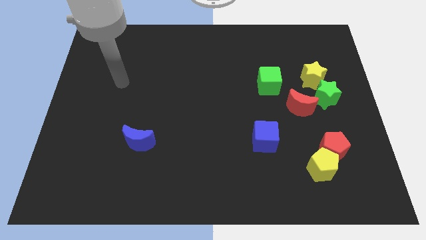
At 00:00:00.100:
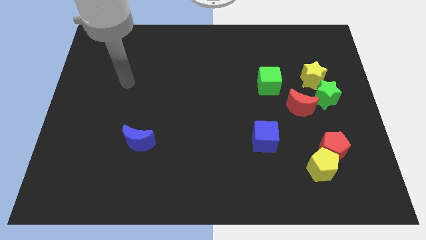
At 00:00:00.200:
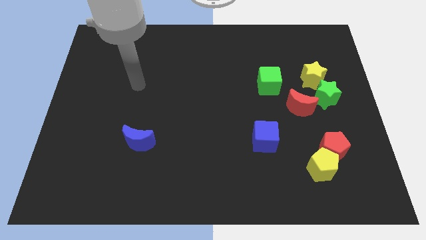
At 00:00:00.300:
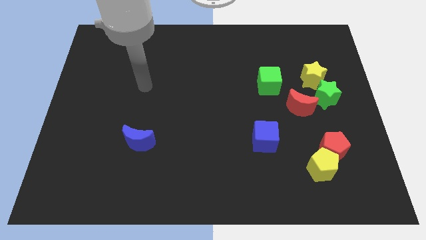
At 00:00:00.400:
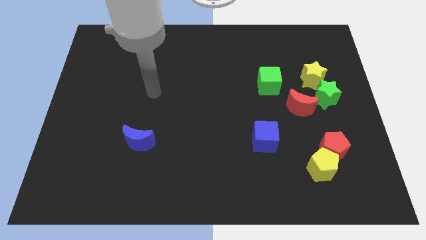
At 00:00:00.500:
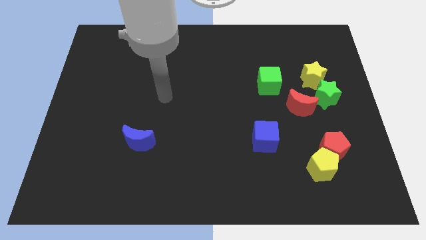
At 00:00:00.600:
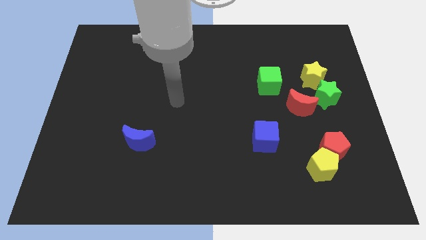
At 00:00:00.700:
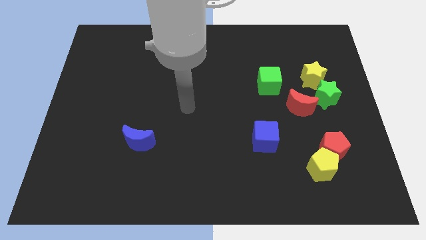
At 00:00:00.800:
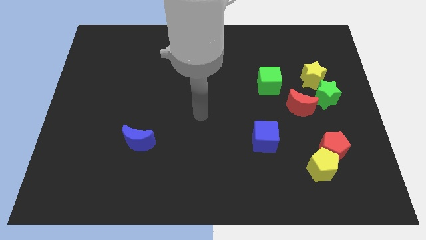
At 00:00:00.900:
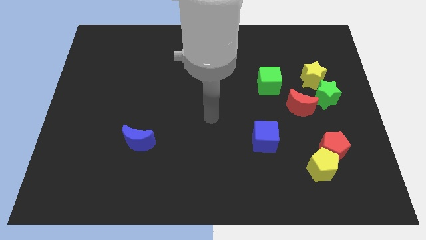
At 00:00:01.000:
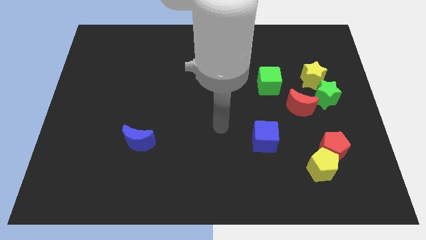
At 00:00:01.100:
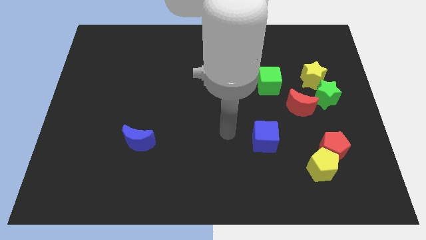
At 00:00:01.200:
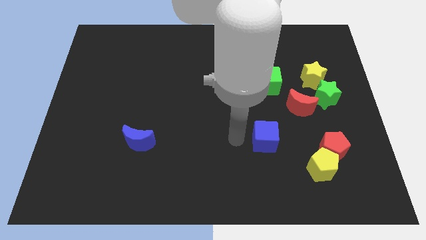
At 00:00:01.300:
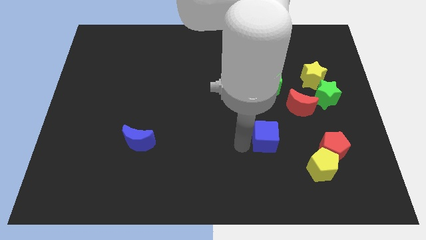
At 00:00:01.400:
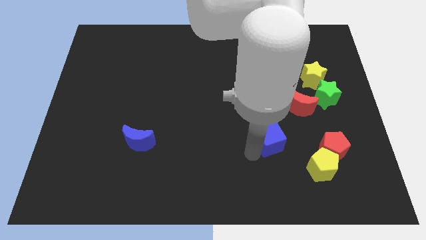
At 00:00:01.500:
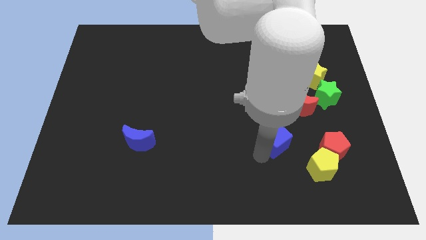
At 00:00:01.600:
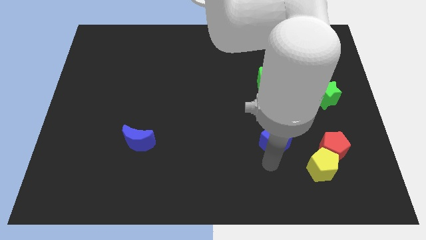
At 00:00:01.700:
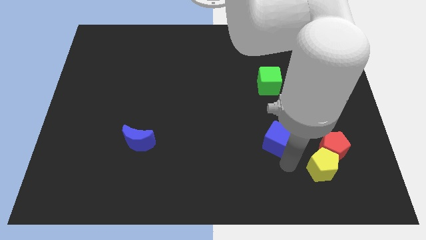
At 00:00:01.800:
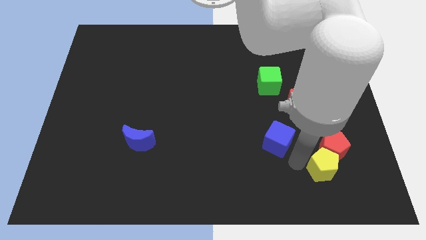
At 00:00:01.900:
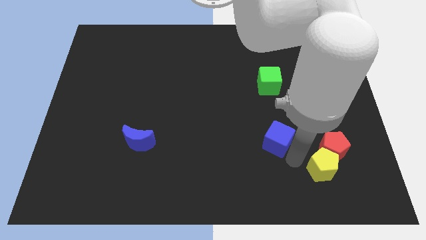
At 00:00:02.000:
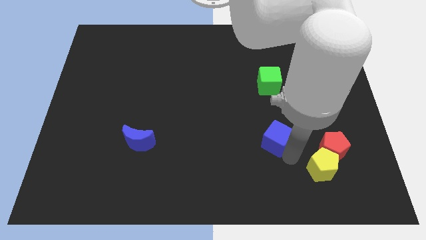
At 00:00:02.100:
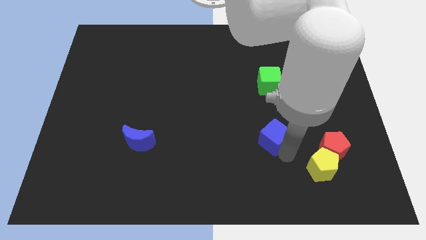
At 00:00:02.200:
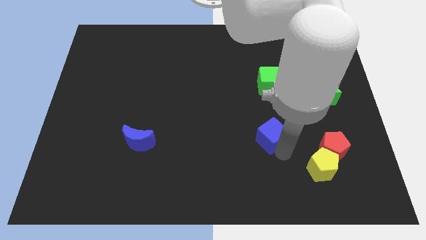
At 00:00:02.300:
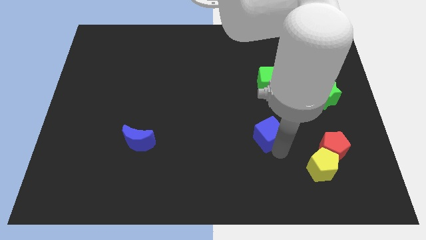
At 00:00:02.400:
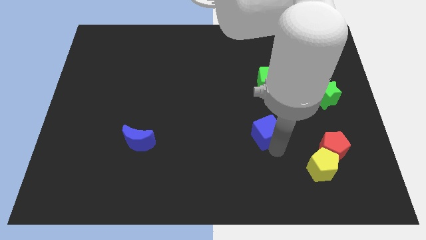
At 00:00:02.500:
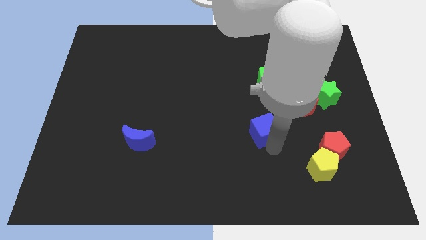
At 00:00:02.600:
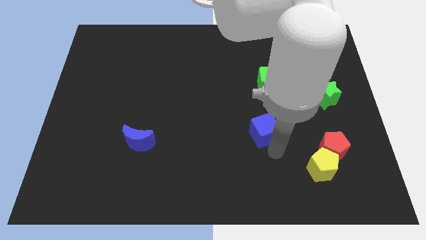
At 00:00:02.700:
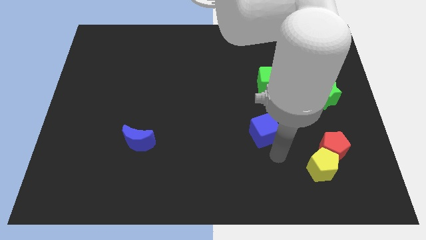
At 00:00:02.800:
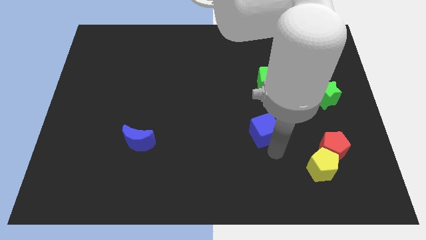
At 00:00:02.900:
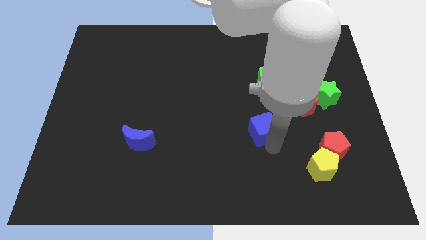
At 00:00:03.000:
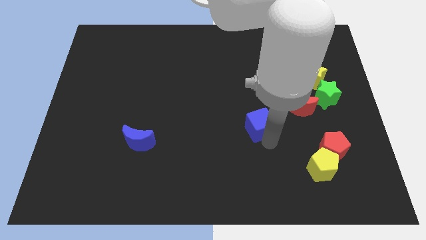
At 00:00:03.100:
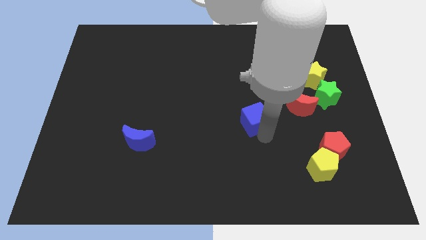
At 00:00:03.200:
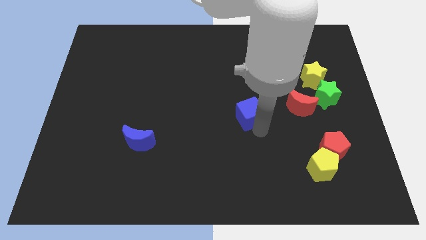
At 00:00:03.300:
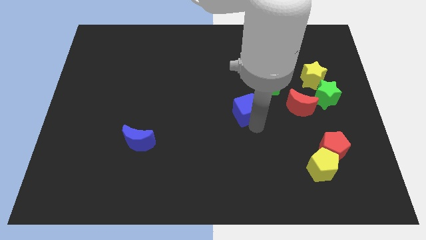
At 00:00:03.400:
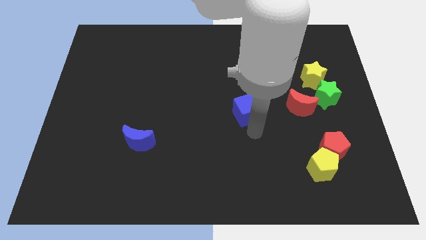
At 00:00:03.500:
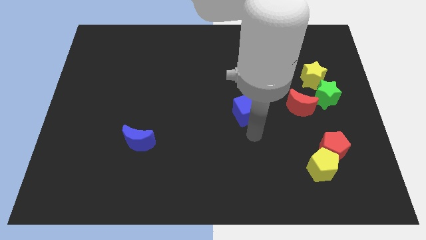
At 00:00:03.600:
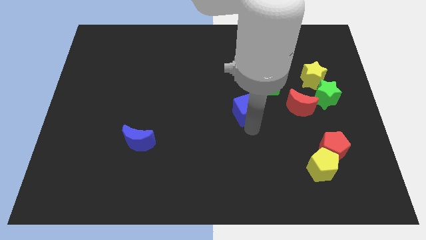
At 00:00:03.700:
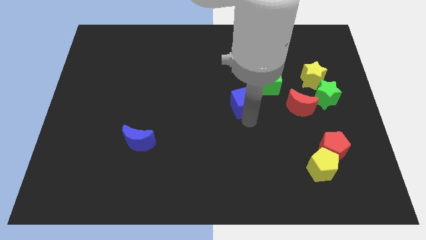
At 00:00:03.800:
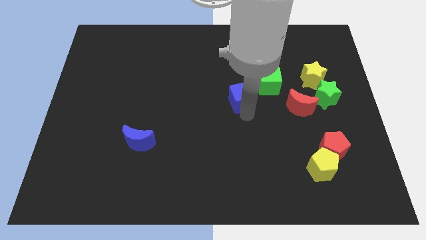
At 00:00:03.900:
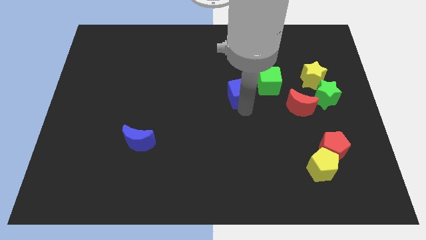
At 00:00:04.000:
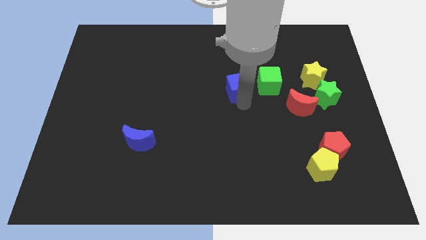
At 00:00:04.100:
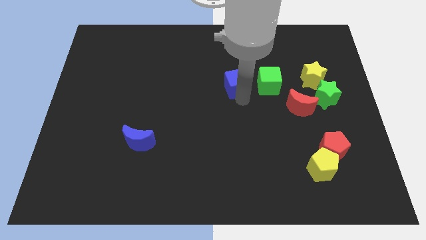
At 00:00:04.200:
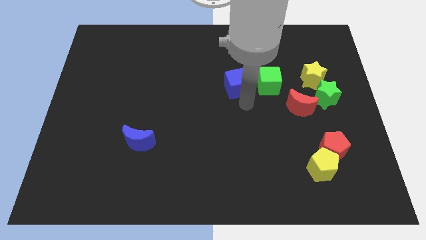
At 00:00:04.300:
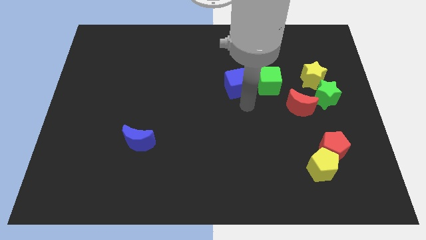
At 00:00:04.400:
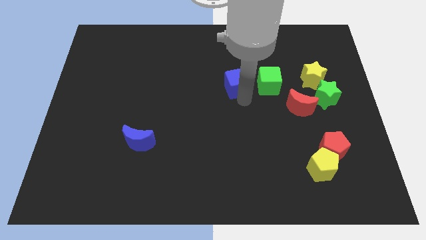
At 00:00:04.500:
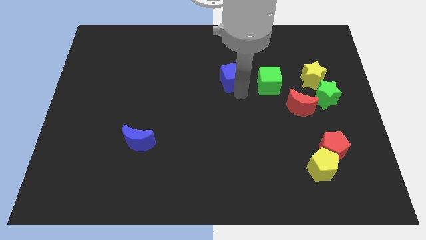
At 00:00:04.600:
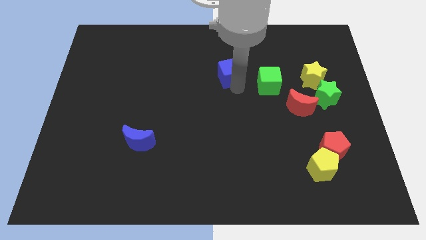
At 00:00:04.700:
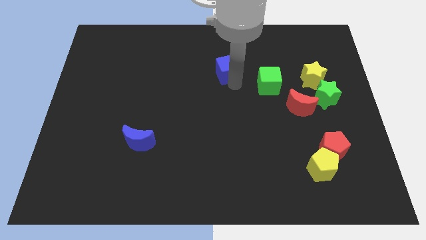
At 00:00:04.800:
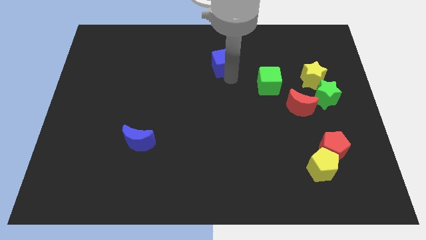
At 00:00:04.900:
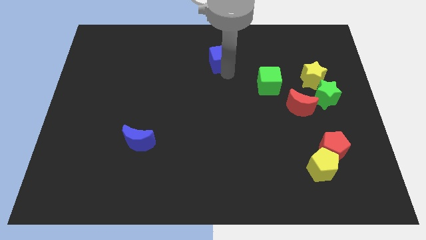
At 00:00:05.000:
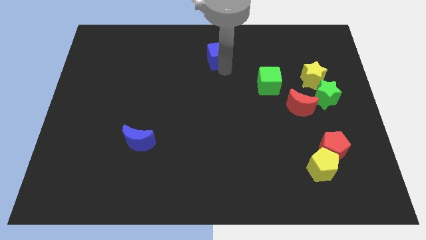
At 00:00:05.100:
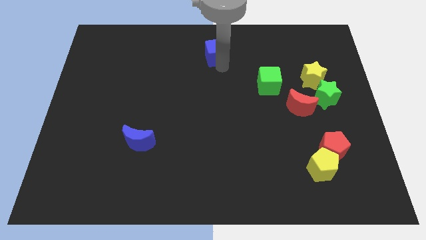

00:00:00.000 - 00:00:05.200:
slide the blue cube to the top side

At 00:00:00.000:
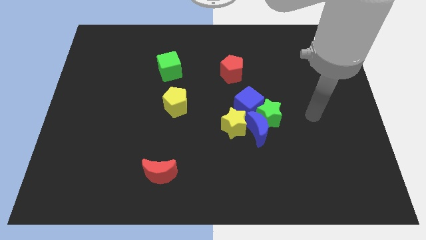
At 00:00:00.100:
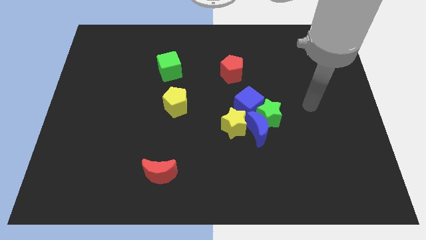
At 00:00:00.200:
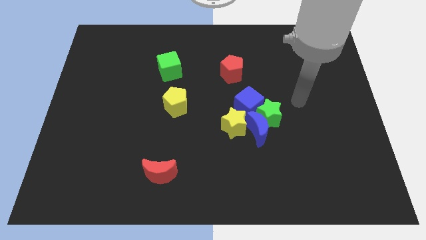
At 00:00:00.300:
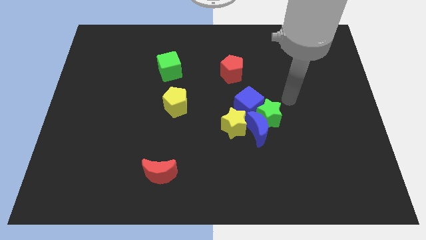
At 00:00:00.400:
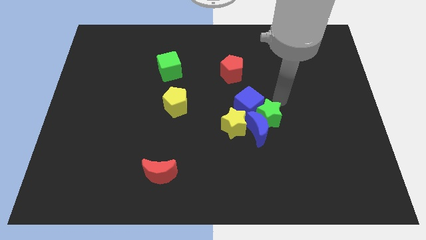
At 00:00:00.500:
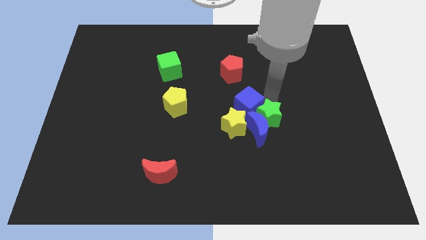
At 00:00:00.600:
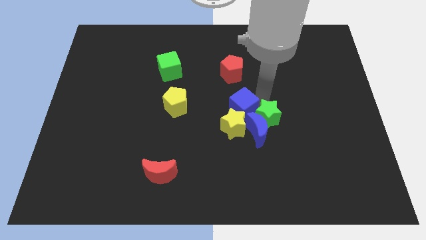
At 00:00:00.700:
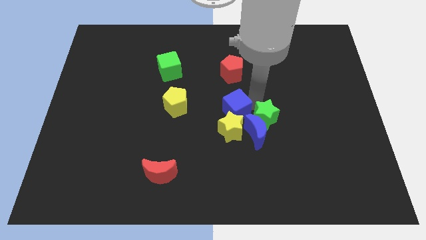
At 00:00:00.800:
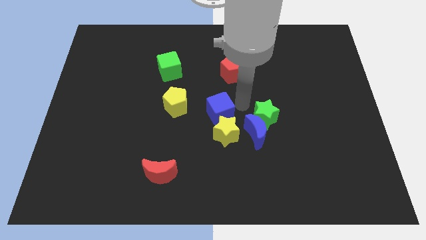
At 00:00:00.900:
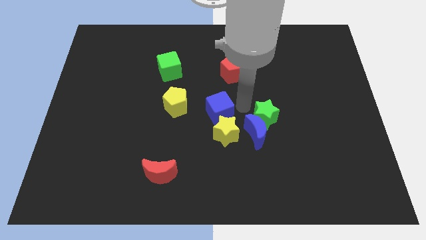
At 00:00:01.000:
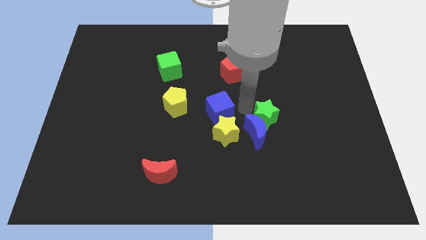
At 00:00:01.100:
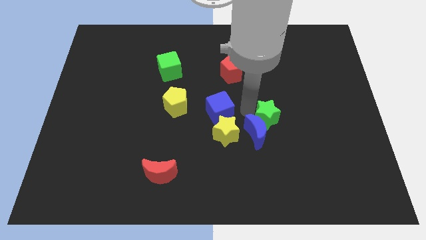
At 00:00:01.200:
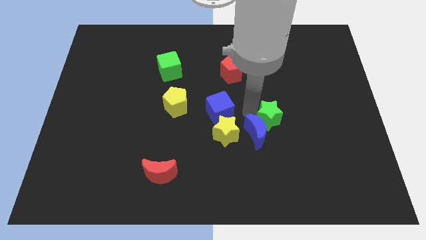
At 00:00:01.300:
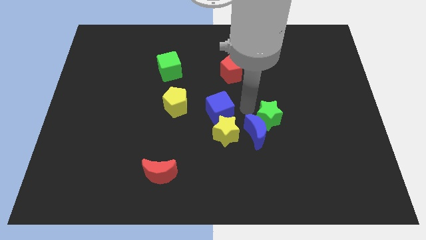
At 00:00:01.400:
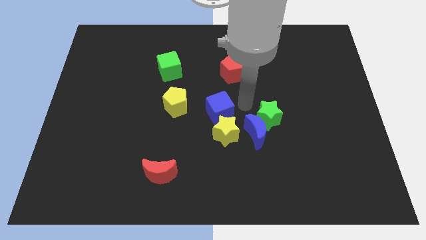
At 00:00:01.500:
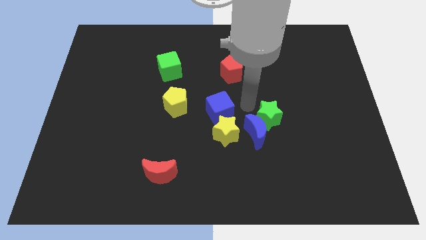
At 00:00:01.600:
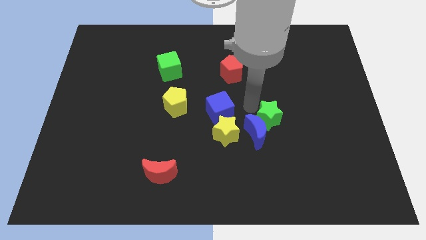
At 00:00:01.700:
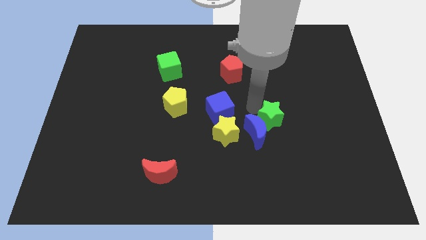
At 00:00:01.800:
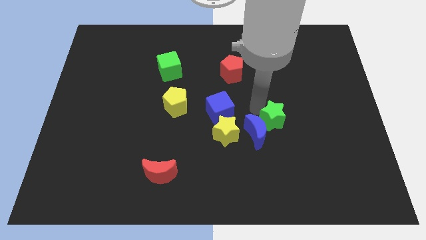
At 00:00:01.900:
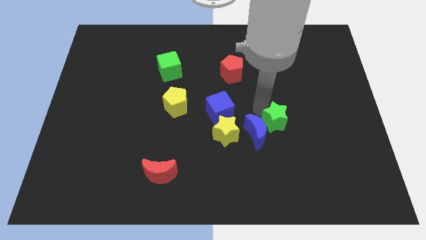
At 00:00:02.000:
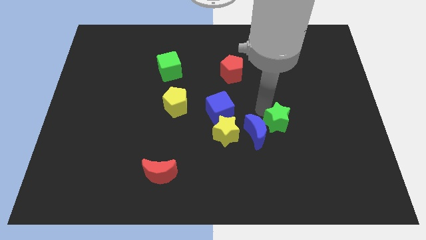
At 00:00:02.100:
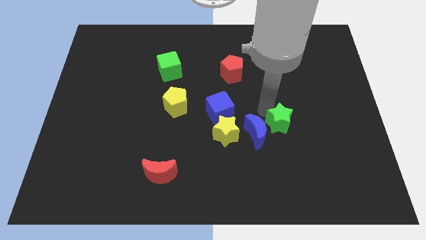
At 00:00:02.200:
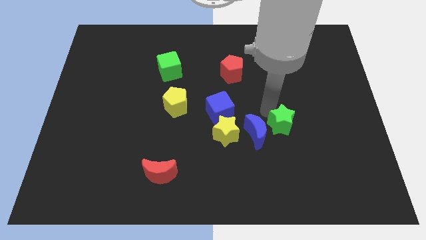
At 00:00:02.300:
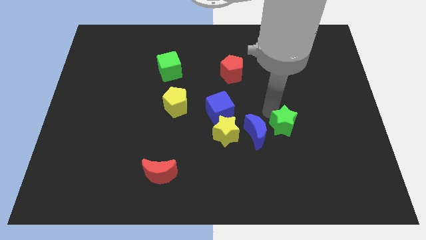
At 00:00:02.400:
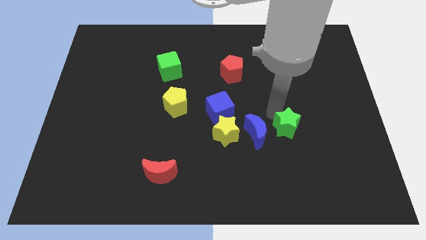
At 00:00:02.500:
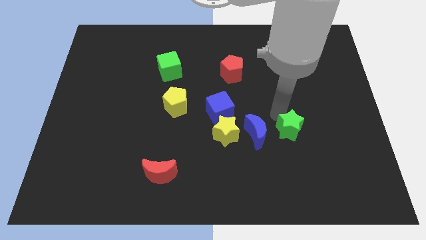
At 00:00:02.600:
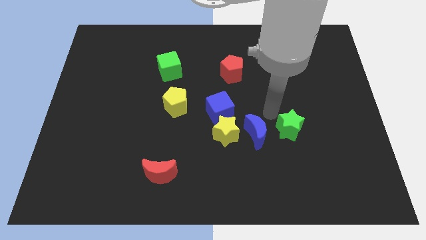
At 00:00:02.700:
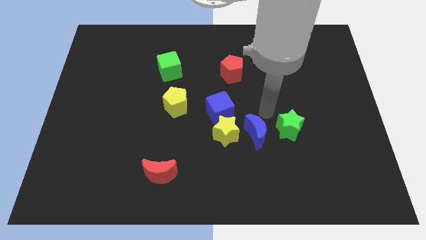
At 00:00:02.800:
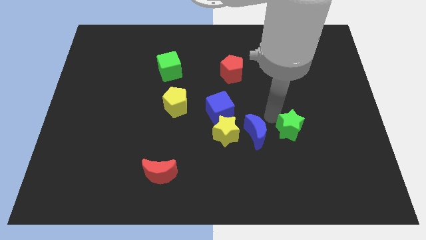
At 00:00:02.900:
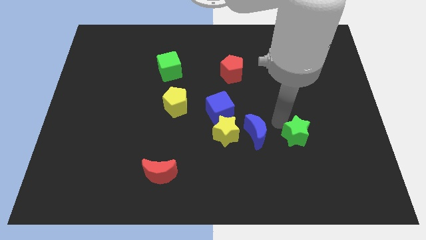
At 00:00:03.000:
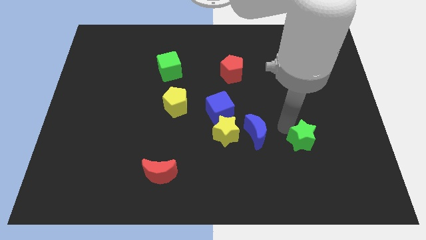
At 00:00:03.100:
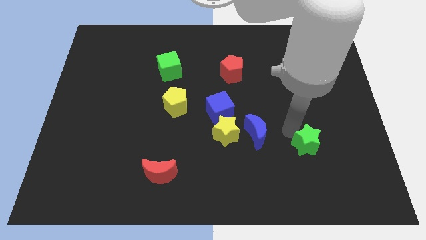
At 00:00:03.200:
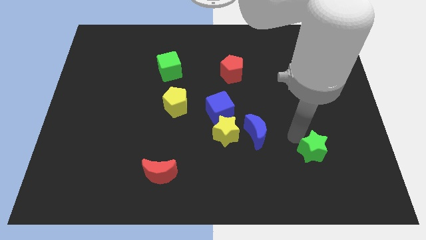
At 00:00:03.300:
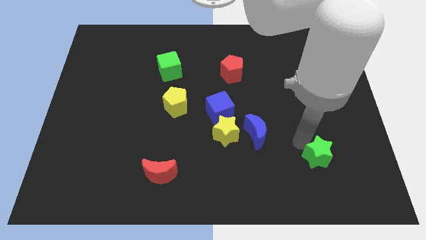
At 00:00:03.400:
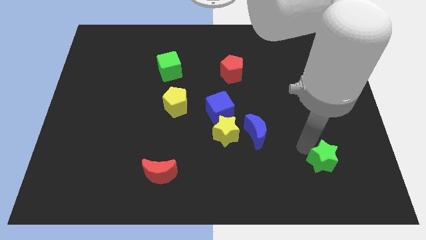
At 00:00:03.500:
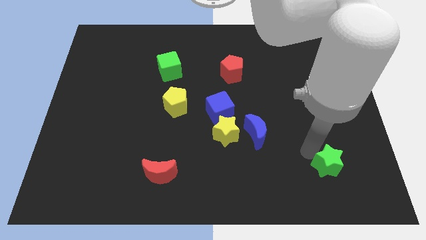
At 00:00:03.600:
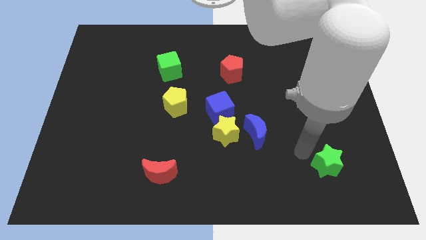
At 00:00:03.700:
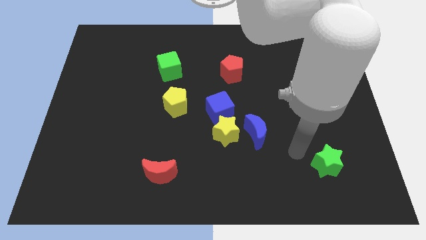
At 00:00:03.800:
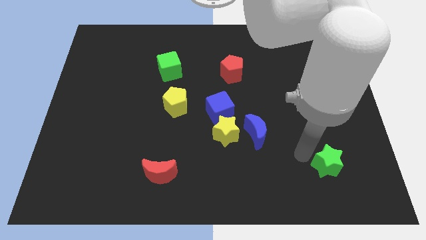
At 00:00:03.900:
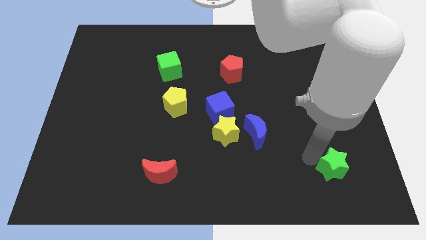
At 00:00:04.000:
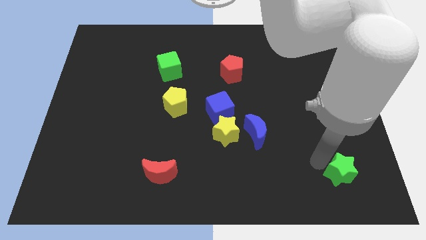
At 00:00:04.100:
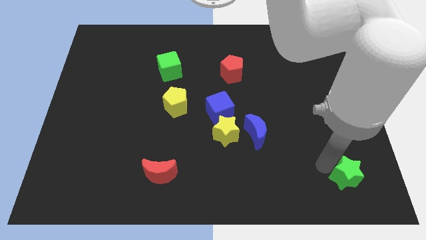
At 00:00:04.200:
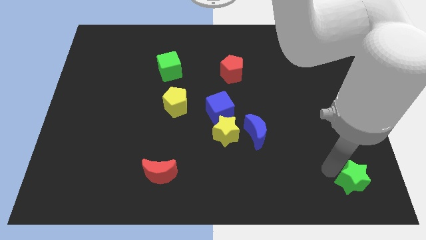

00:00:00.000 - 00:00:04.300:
put the green star to the bottom right corner
